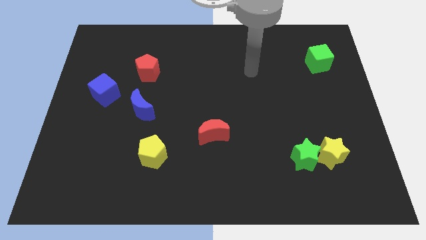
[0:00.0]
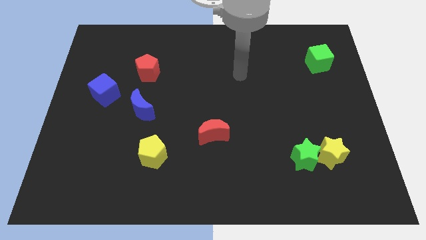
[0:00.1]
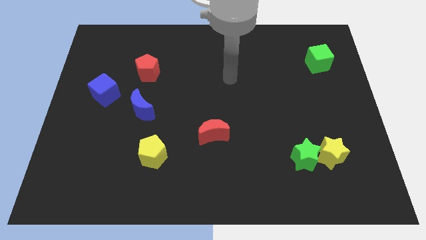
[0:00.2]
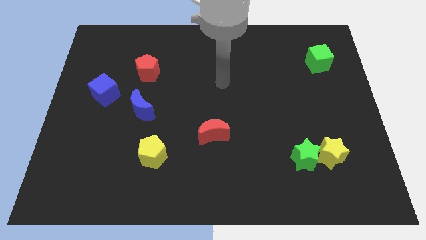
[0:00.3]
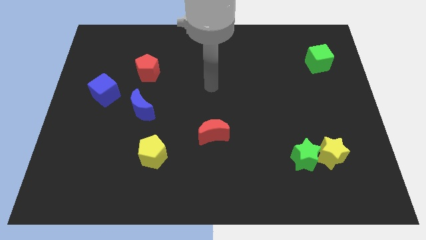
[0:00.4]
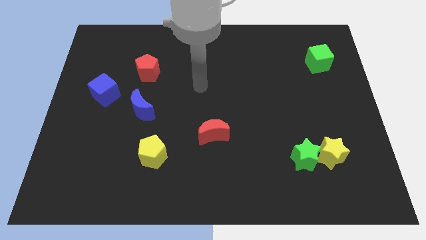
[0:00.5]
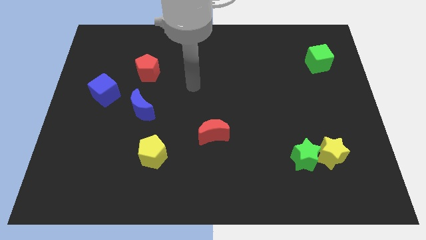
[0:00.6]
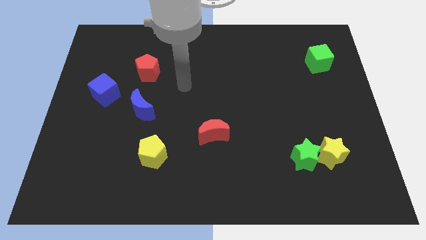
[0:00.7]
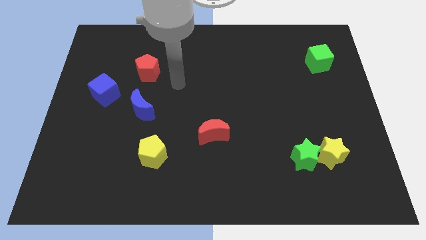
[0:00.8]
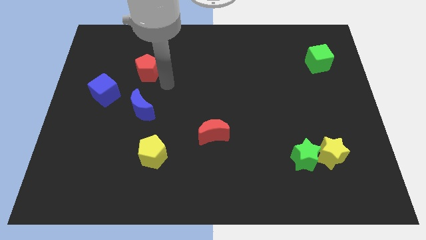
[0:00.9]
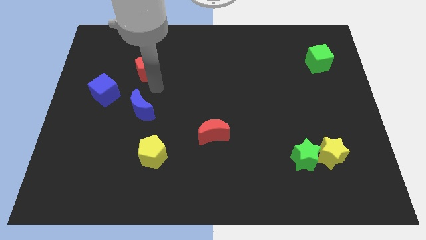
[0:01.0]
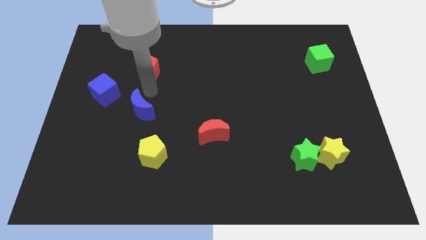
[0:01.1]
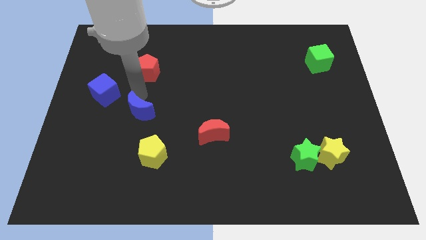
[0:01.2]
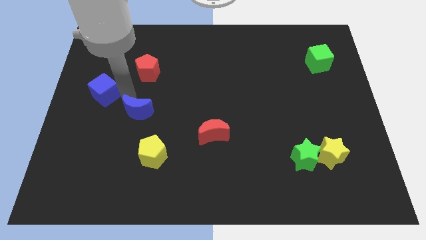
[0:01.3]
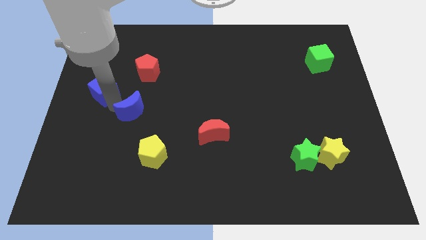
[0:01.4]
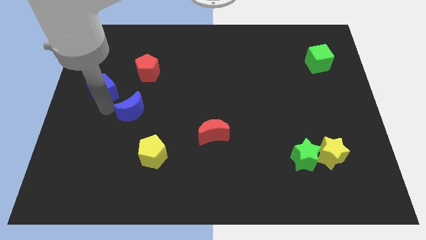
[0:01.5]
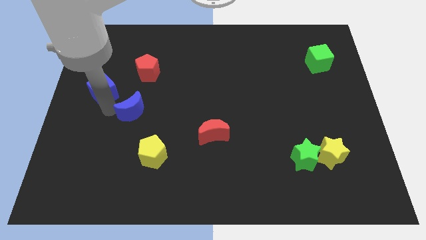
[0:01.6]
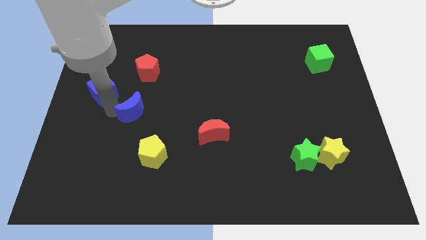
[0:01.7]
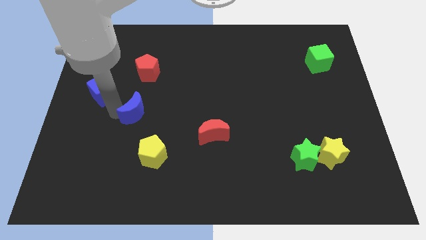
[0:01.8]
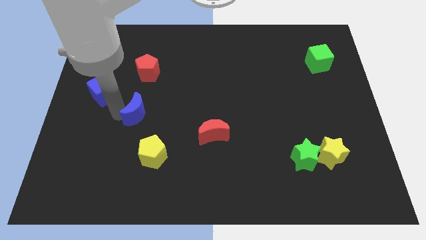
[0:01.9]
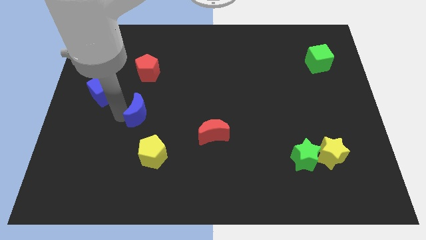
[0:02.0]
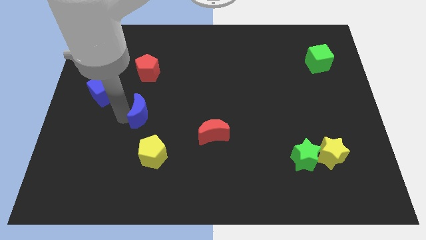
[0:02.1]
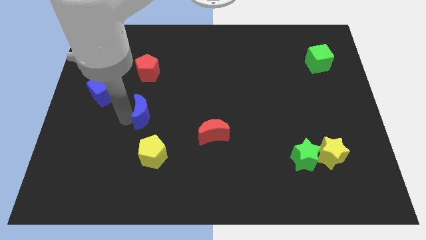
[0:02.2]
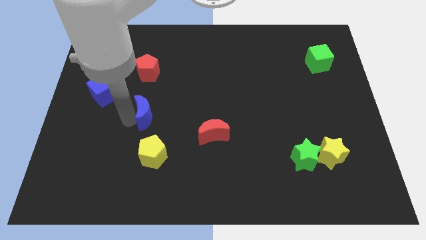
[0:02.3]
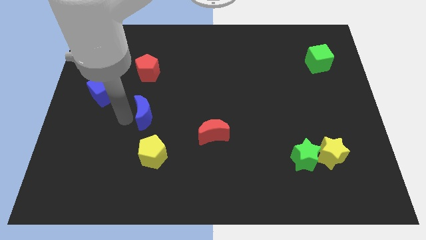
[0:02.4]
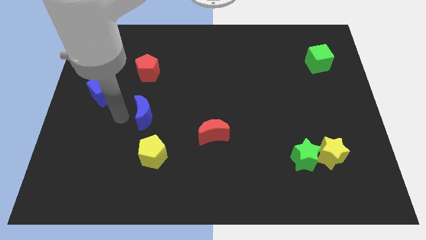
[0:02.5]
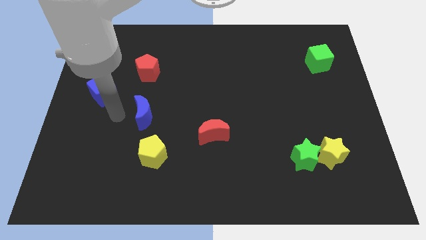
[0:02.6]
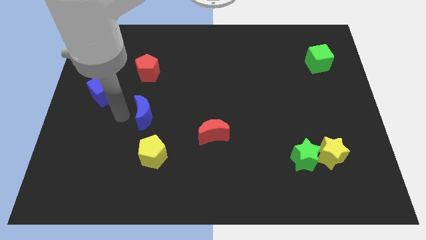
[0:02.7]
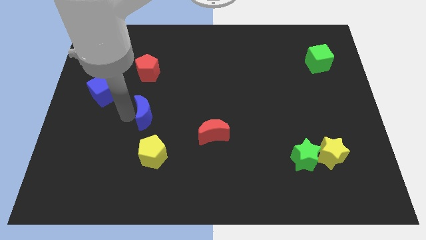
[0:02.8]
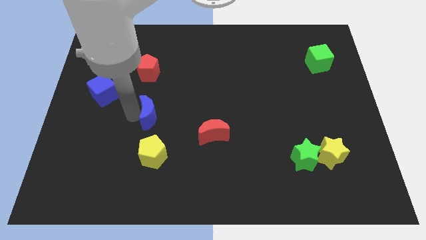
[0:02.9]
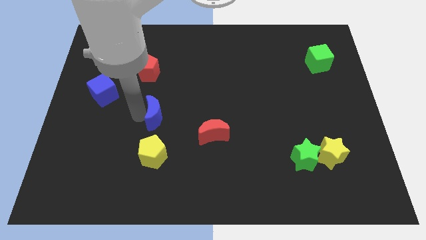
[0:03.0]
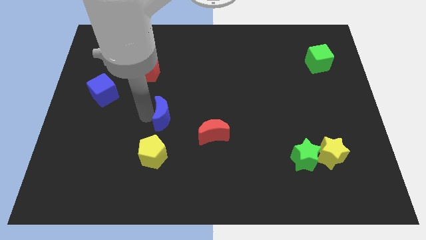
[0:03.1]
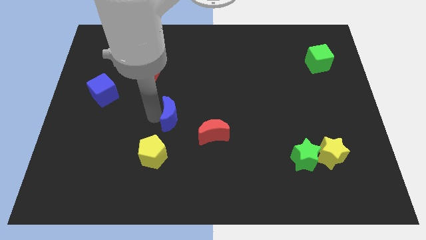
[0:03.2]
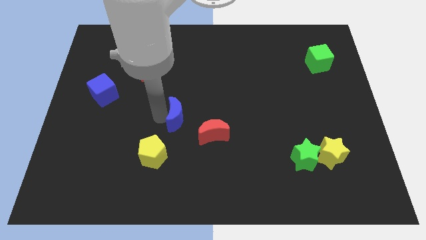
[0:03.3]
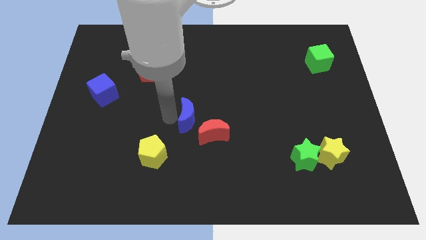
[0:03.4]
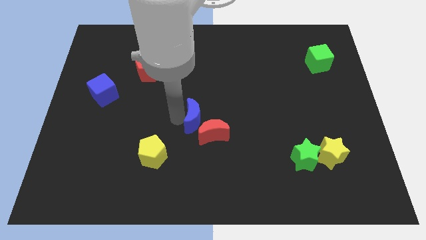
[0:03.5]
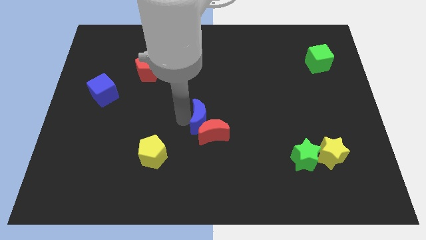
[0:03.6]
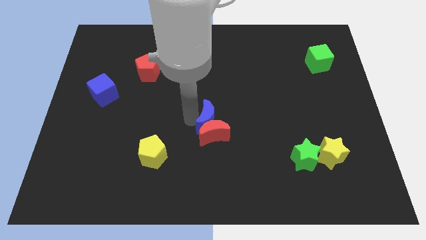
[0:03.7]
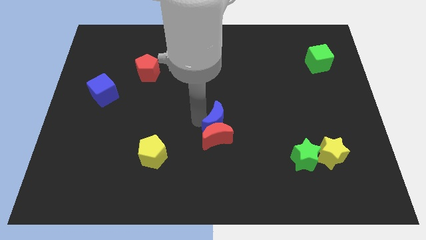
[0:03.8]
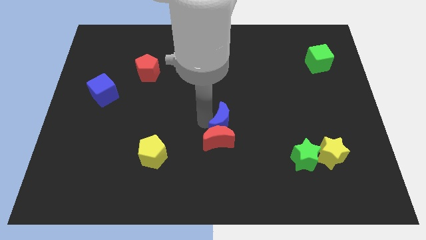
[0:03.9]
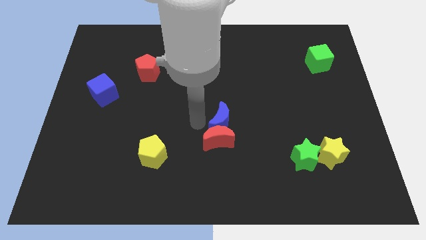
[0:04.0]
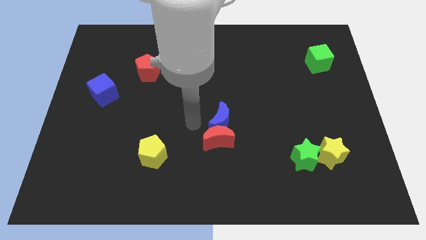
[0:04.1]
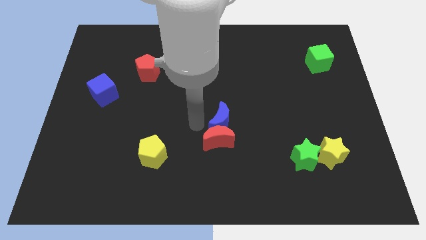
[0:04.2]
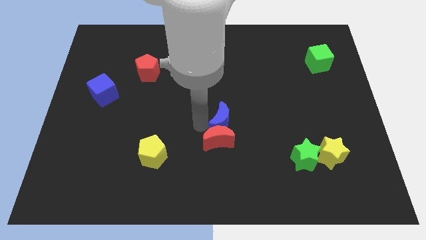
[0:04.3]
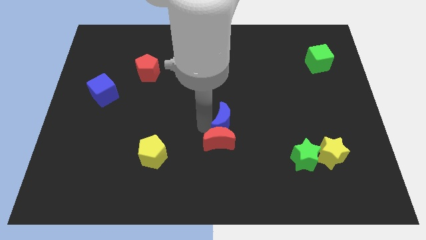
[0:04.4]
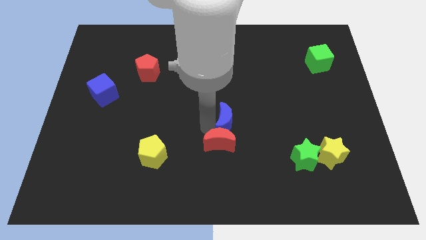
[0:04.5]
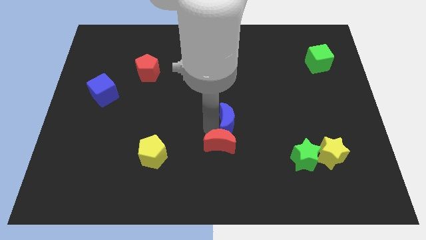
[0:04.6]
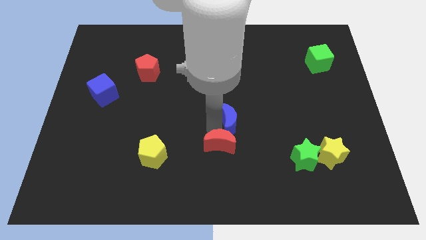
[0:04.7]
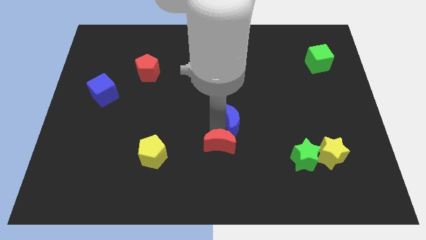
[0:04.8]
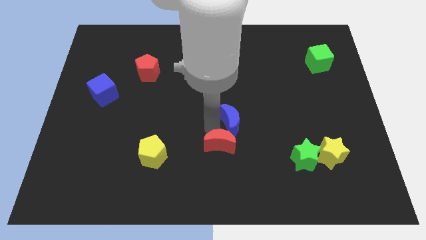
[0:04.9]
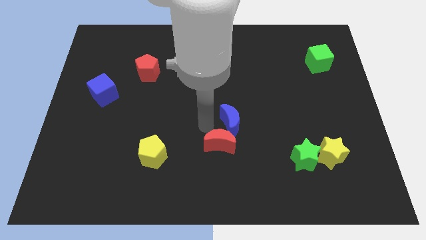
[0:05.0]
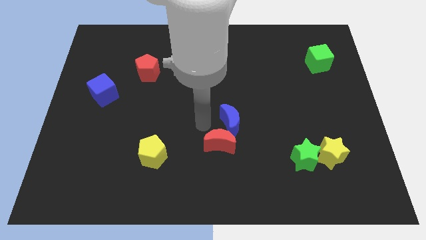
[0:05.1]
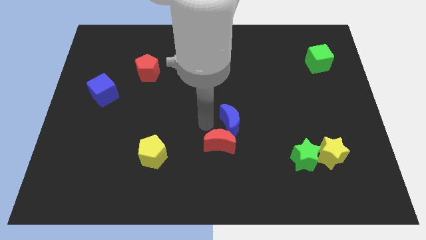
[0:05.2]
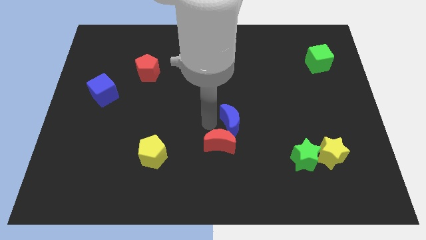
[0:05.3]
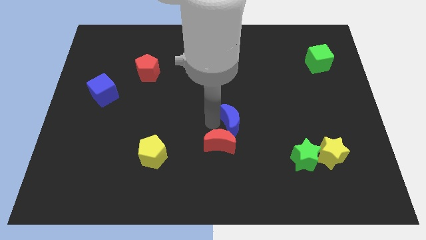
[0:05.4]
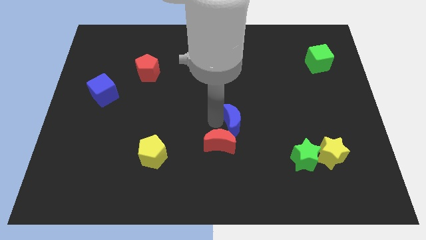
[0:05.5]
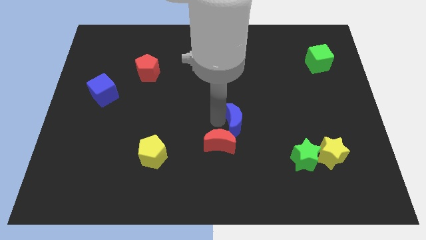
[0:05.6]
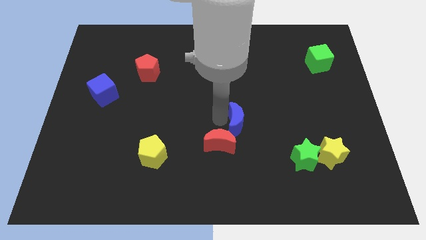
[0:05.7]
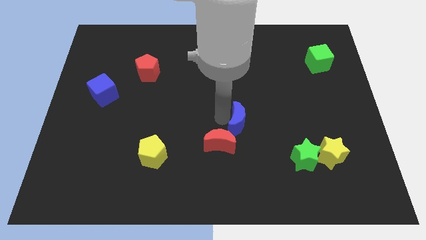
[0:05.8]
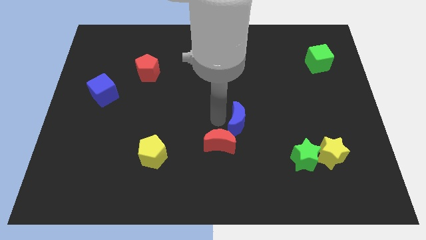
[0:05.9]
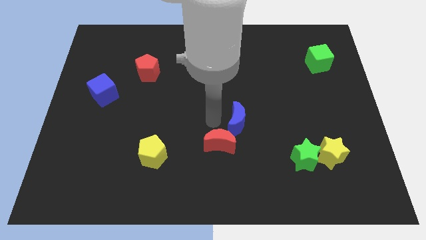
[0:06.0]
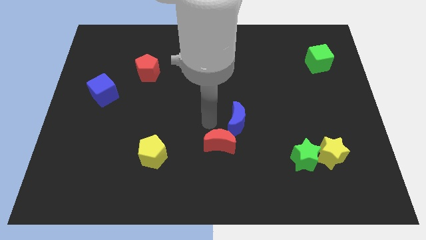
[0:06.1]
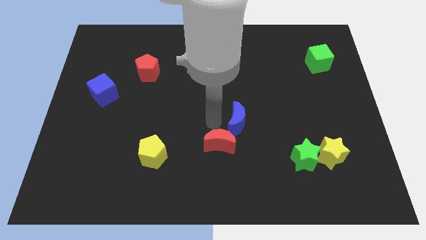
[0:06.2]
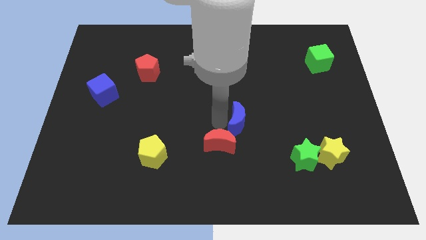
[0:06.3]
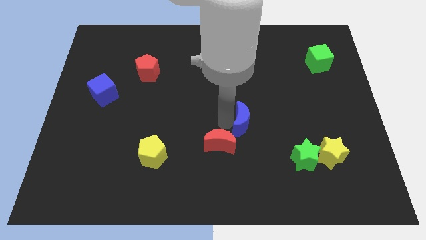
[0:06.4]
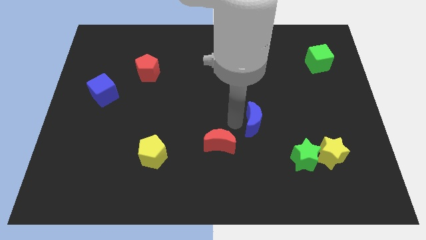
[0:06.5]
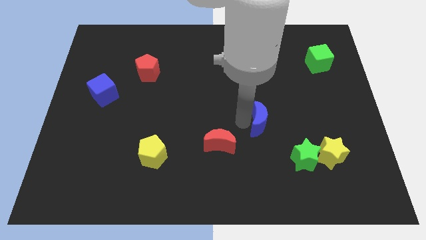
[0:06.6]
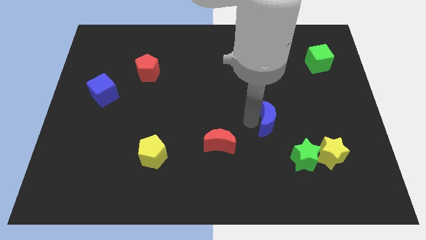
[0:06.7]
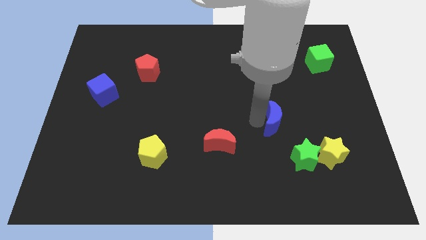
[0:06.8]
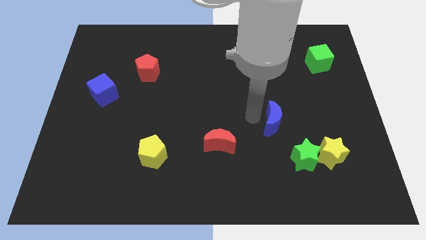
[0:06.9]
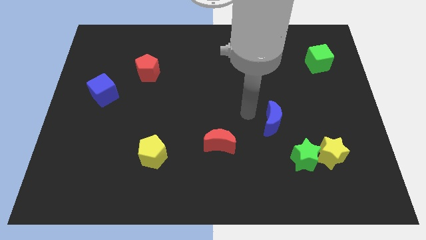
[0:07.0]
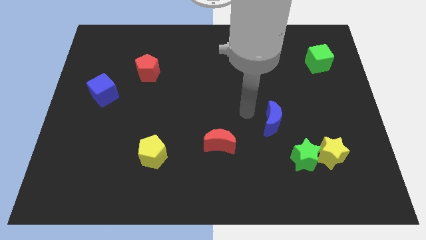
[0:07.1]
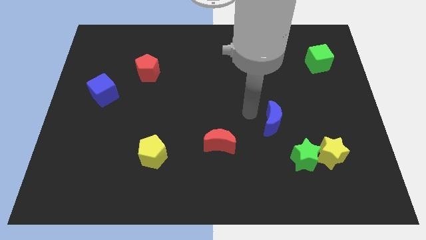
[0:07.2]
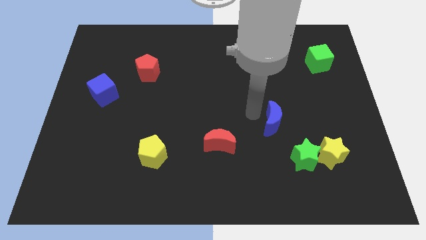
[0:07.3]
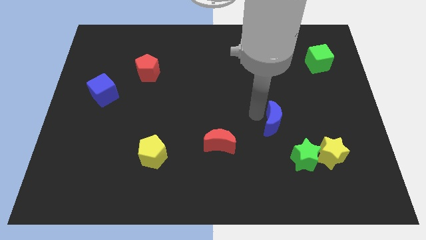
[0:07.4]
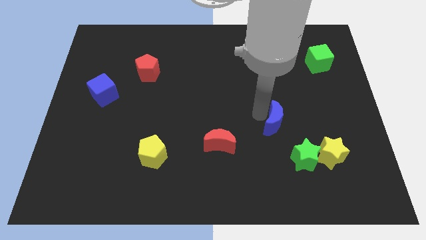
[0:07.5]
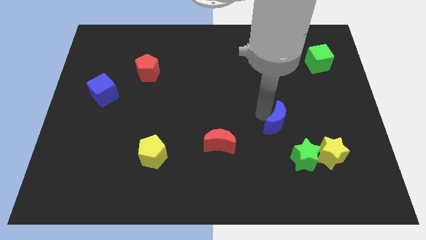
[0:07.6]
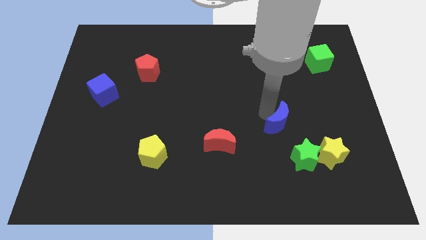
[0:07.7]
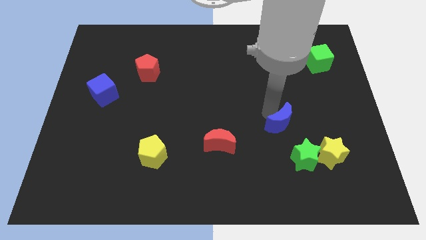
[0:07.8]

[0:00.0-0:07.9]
push the blue moon to the top left of the yellow star
